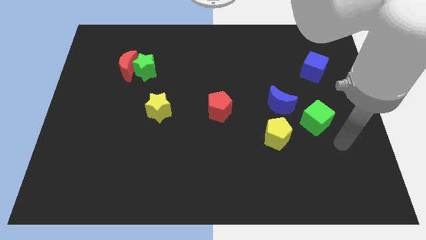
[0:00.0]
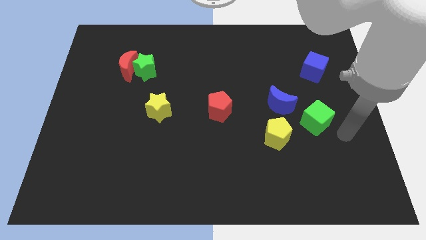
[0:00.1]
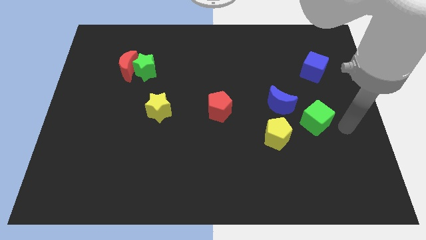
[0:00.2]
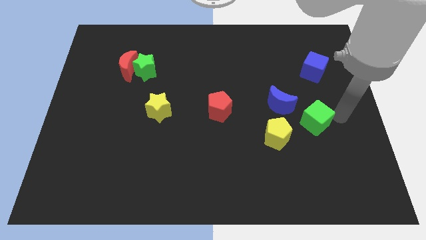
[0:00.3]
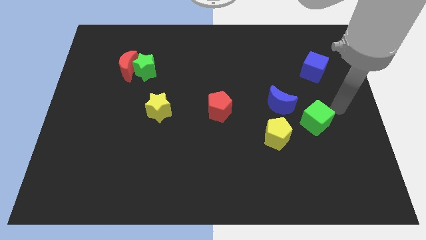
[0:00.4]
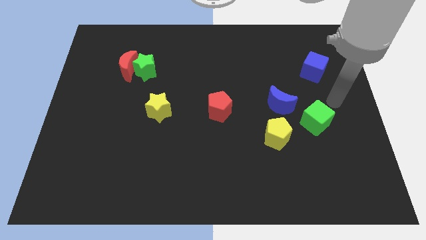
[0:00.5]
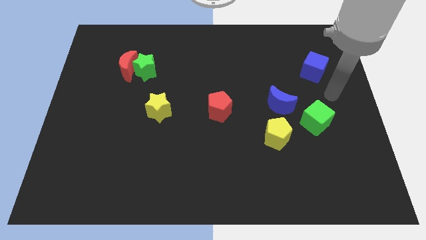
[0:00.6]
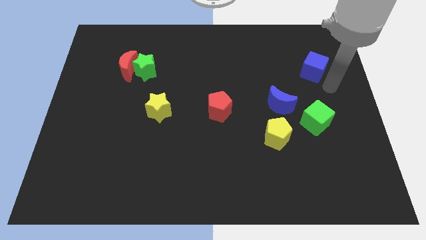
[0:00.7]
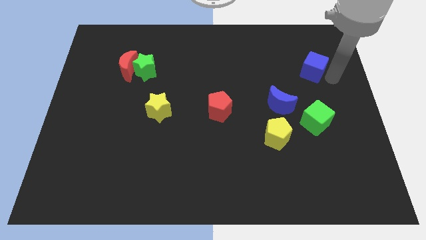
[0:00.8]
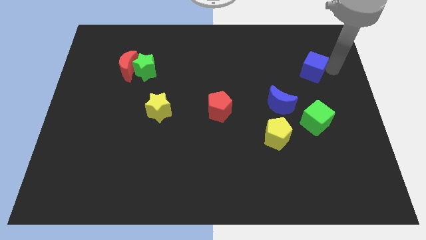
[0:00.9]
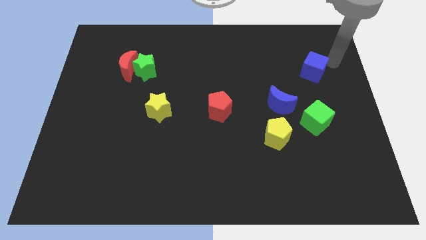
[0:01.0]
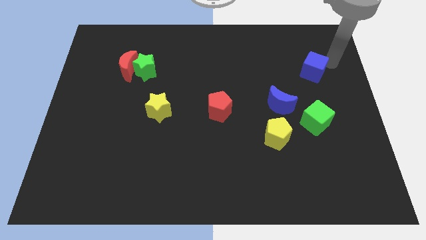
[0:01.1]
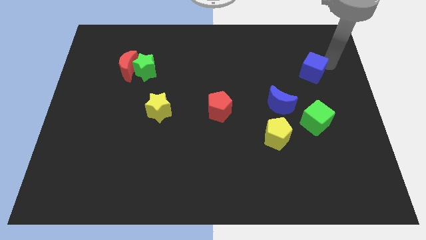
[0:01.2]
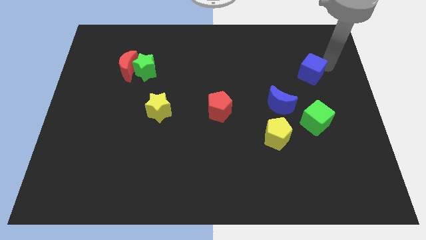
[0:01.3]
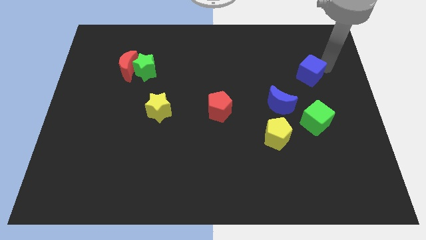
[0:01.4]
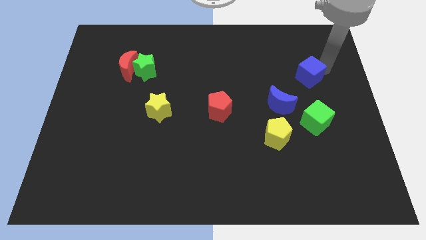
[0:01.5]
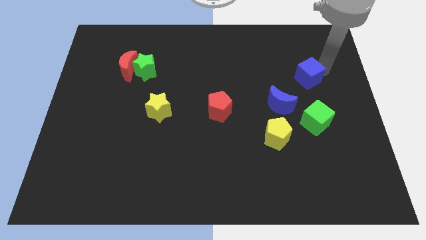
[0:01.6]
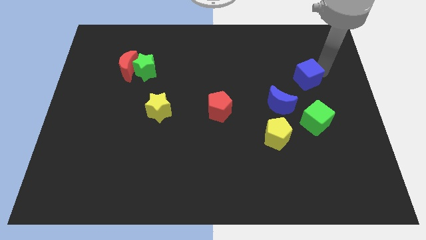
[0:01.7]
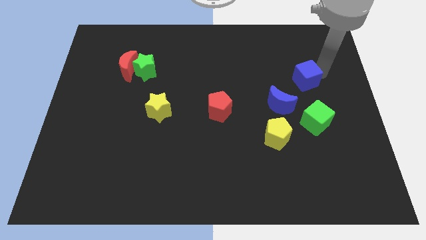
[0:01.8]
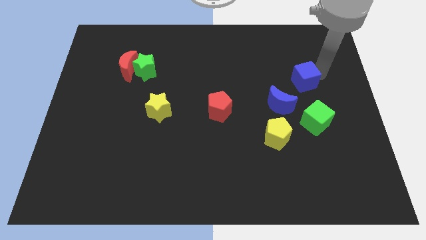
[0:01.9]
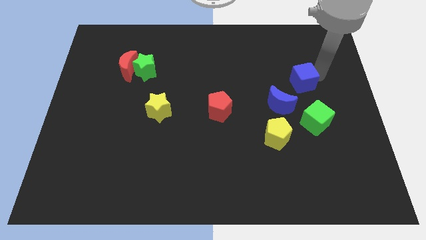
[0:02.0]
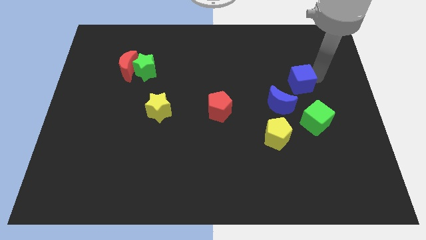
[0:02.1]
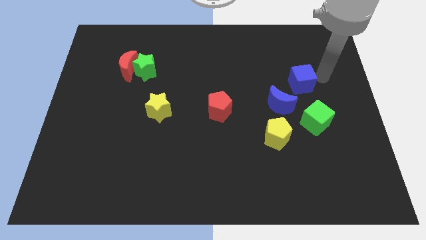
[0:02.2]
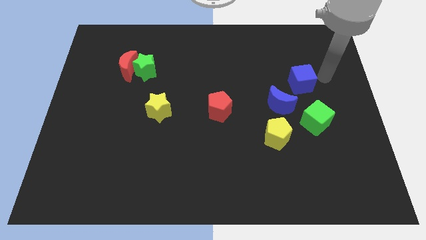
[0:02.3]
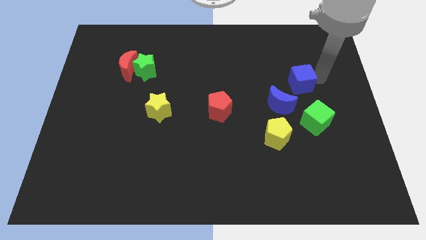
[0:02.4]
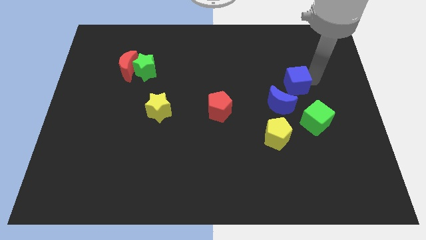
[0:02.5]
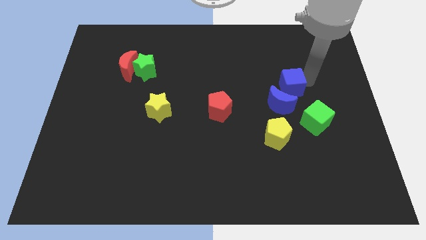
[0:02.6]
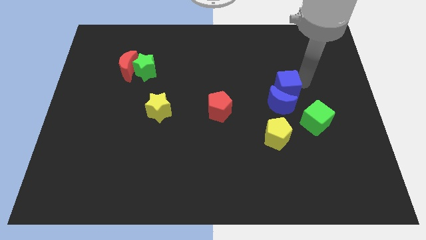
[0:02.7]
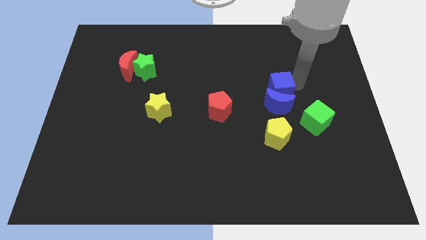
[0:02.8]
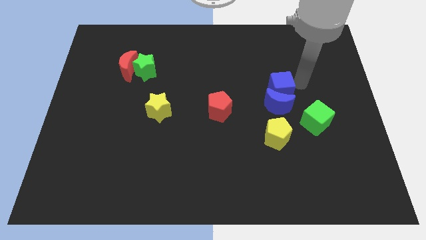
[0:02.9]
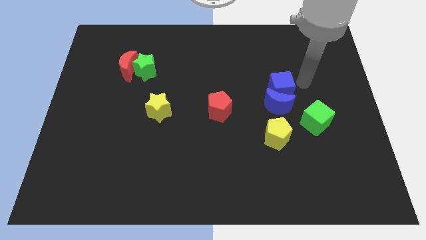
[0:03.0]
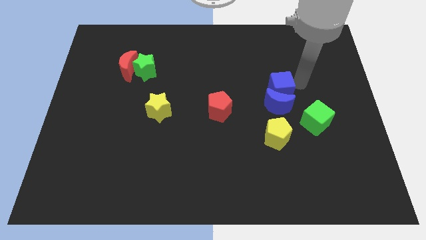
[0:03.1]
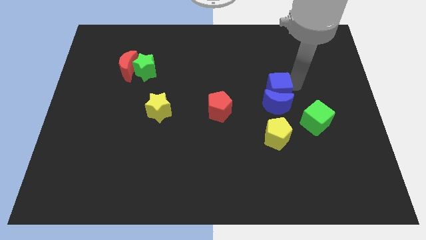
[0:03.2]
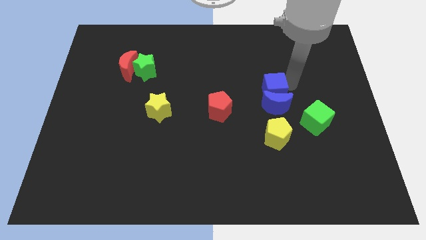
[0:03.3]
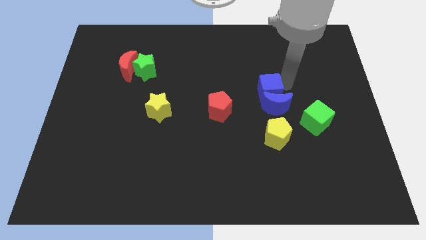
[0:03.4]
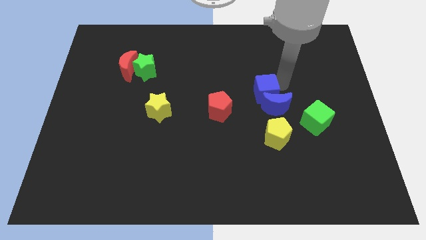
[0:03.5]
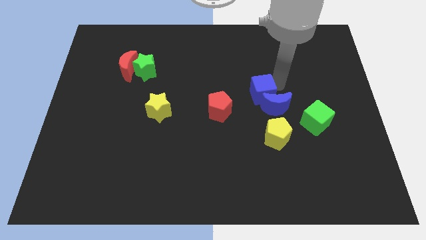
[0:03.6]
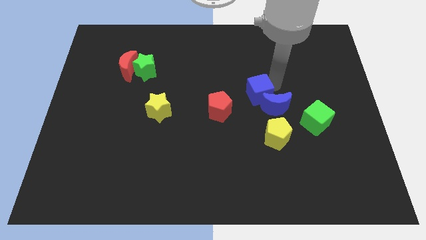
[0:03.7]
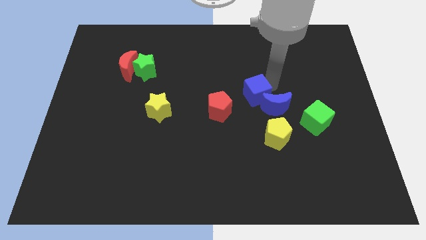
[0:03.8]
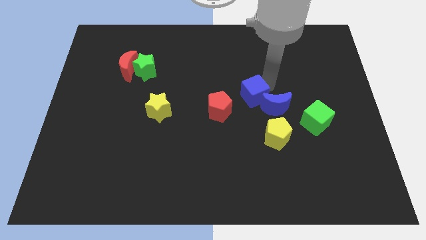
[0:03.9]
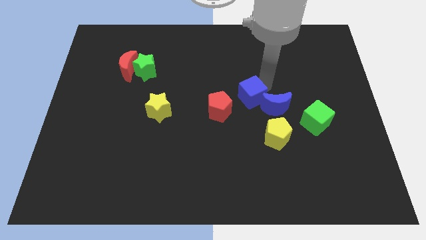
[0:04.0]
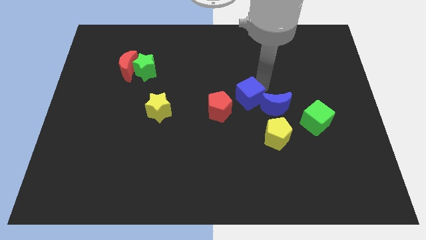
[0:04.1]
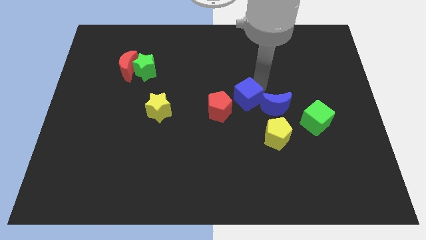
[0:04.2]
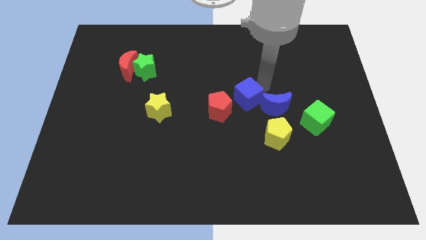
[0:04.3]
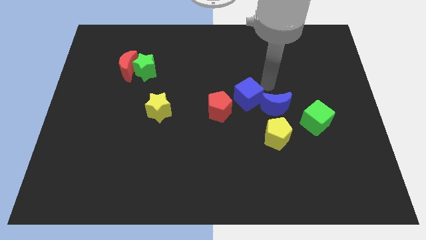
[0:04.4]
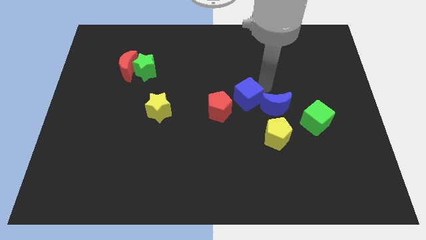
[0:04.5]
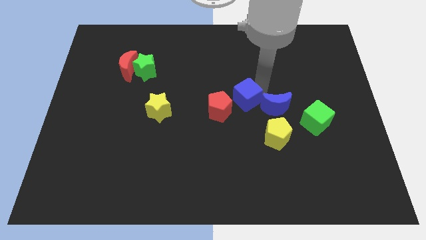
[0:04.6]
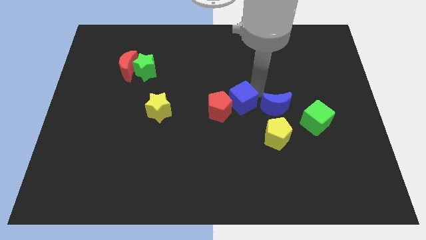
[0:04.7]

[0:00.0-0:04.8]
push the blue cube towards the red pentagon
